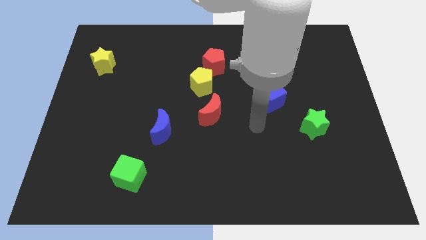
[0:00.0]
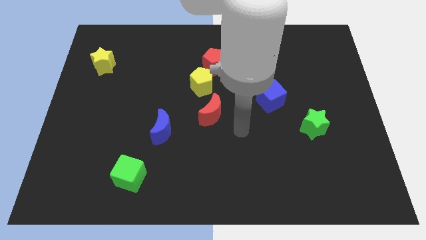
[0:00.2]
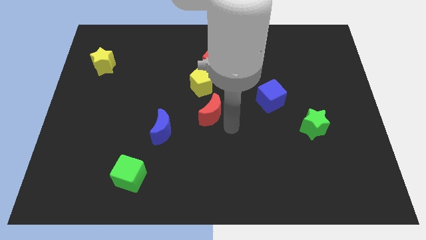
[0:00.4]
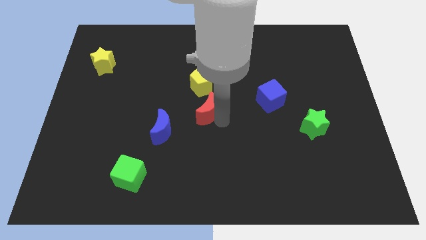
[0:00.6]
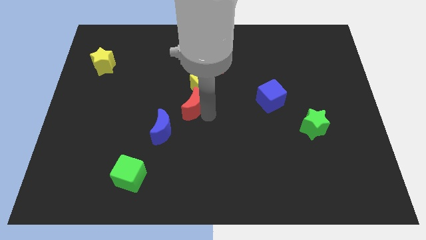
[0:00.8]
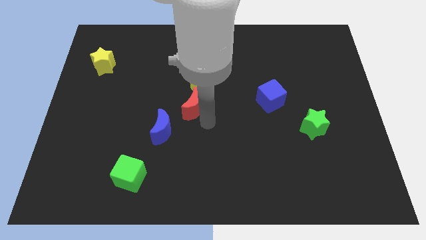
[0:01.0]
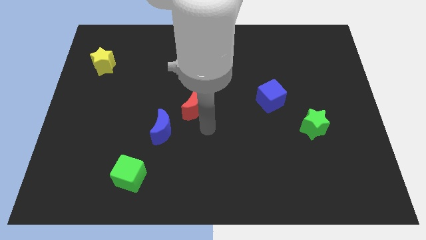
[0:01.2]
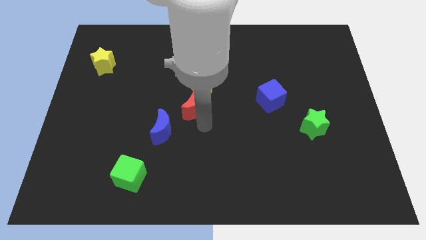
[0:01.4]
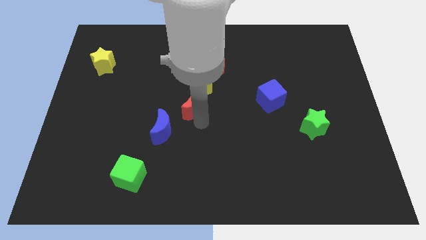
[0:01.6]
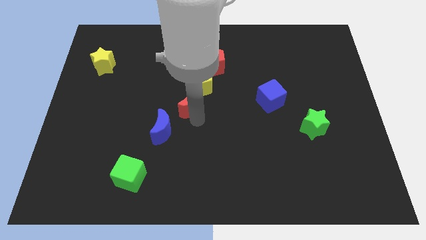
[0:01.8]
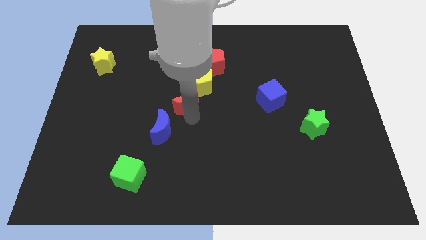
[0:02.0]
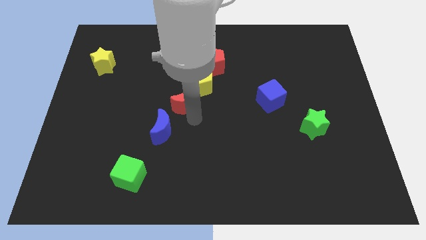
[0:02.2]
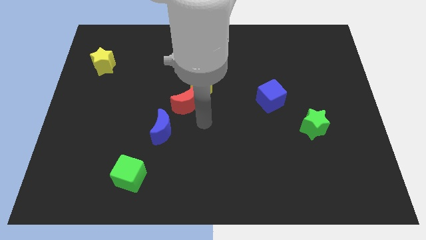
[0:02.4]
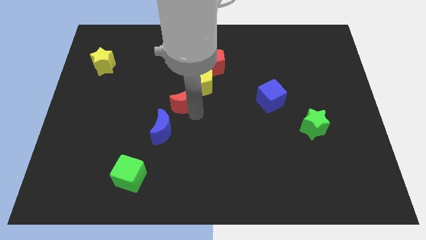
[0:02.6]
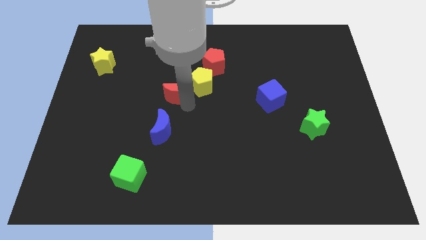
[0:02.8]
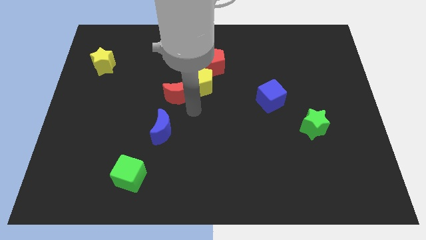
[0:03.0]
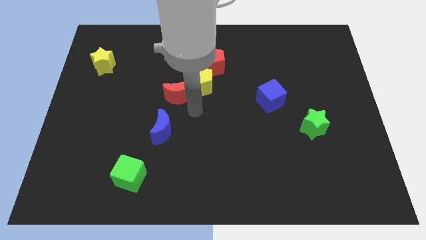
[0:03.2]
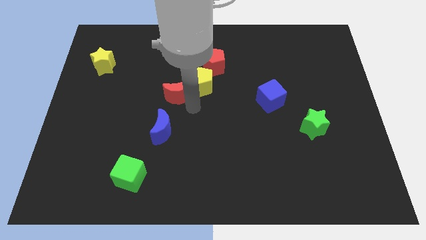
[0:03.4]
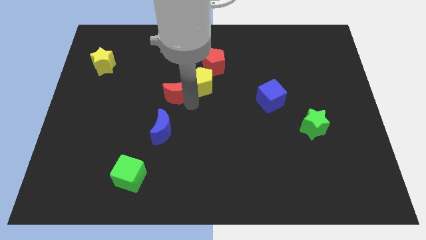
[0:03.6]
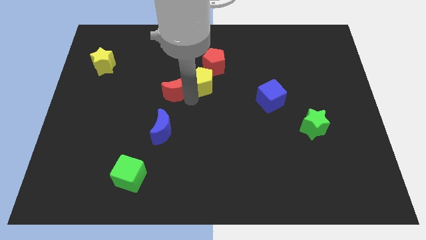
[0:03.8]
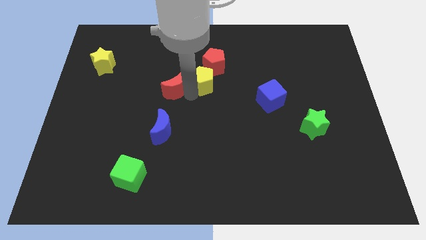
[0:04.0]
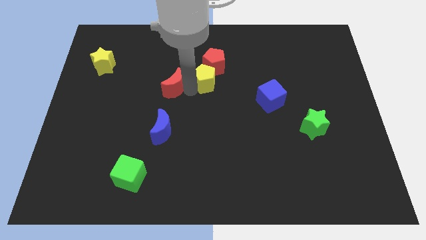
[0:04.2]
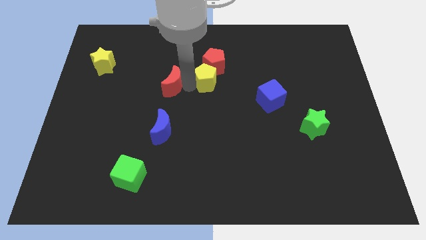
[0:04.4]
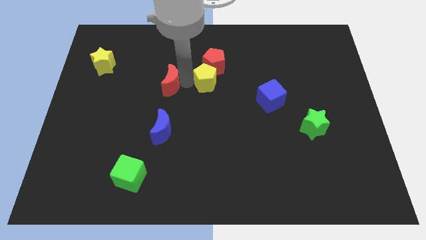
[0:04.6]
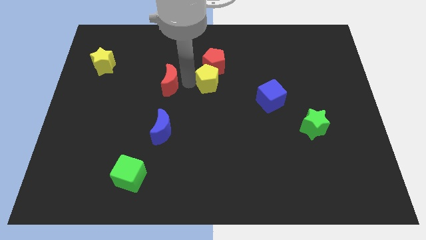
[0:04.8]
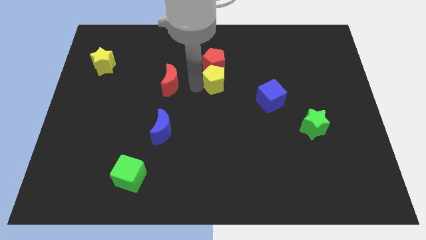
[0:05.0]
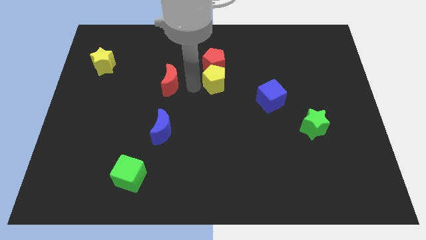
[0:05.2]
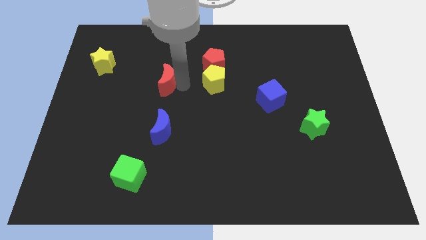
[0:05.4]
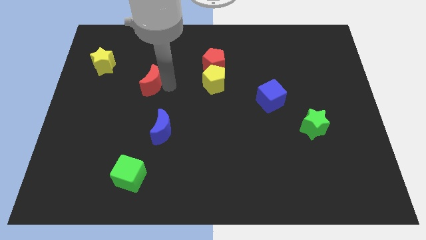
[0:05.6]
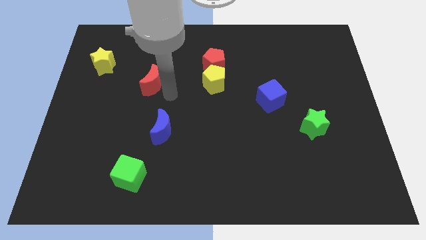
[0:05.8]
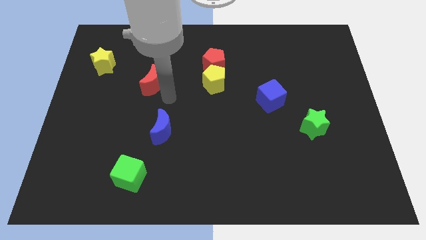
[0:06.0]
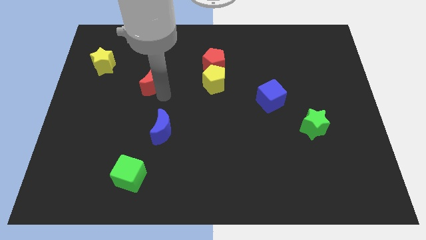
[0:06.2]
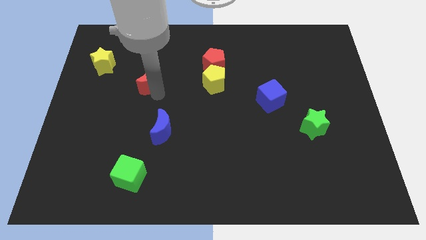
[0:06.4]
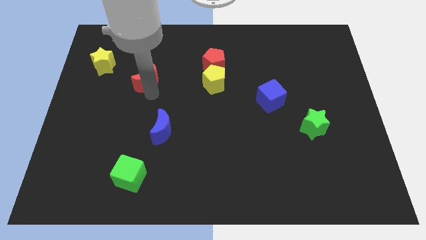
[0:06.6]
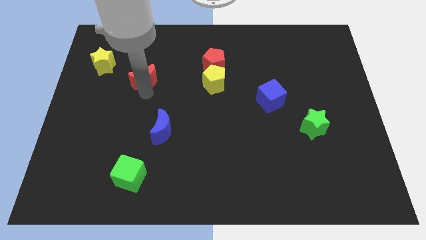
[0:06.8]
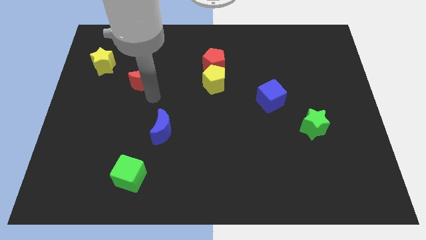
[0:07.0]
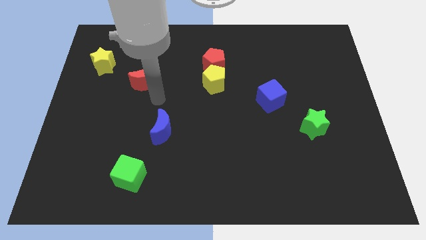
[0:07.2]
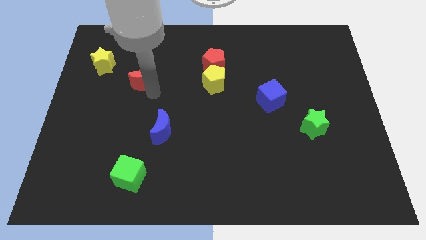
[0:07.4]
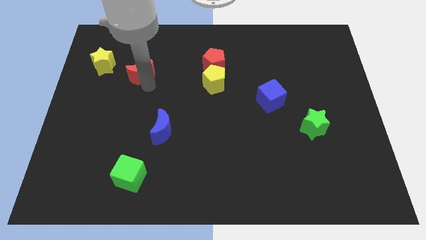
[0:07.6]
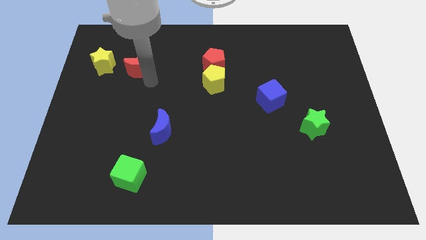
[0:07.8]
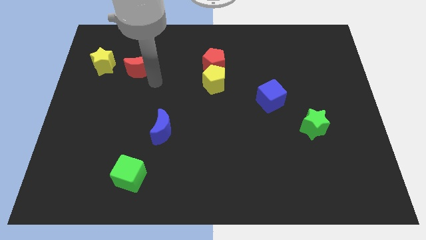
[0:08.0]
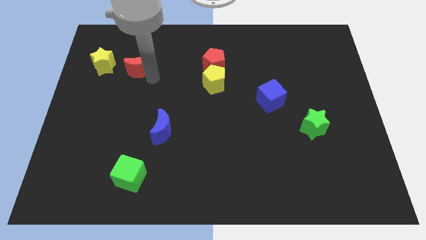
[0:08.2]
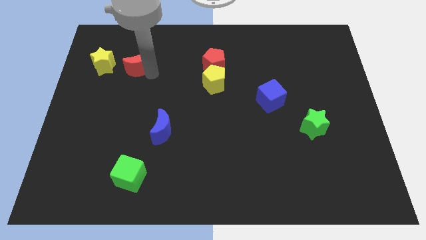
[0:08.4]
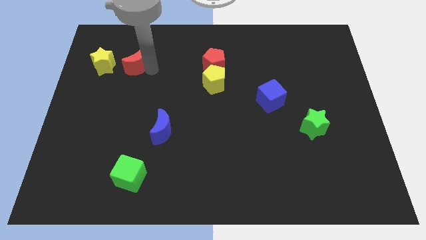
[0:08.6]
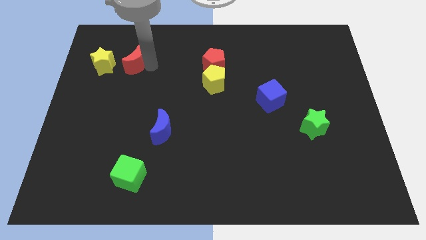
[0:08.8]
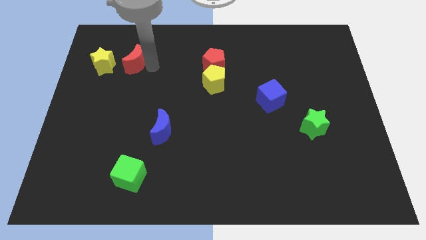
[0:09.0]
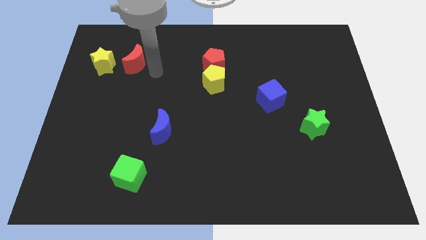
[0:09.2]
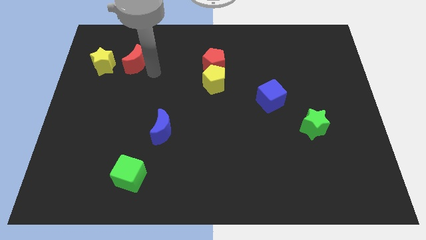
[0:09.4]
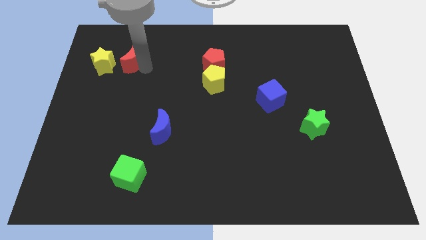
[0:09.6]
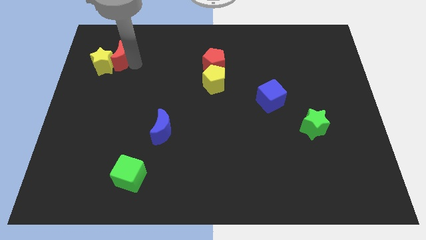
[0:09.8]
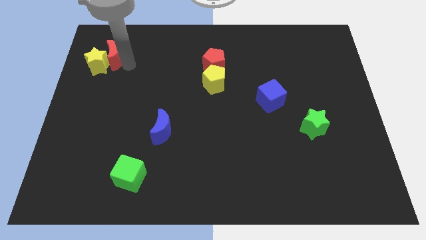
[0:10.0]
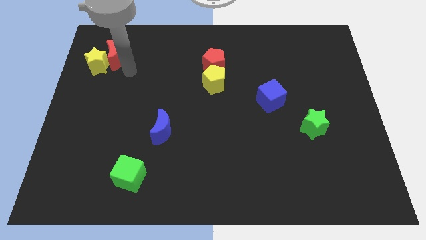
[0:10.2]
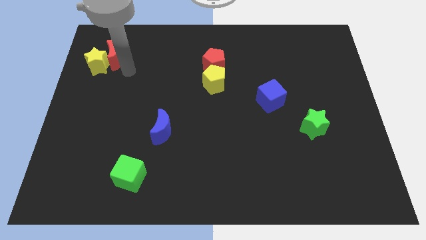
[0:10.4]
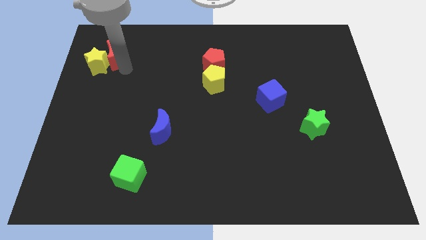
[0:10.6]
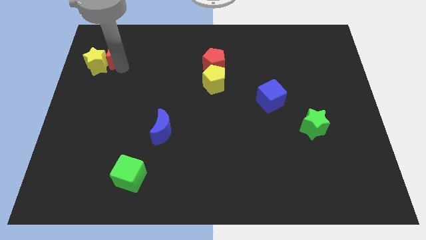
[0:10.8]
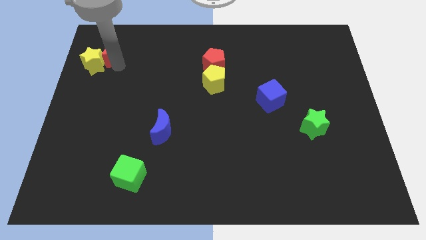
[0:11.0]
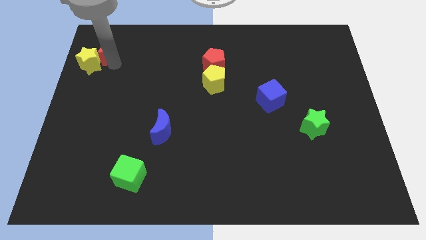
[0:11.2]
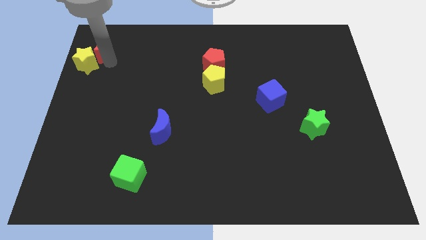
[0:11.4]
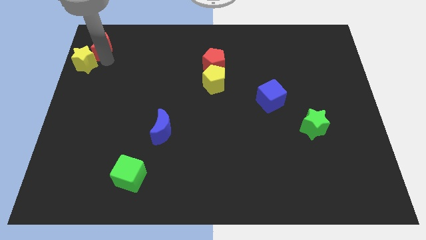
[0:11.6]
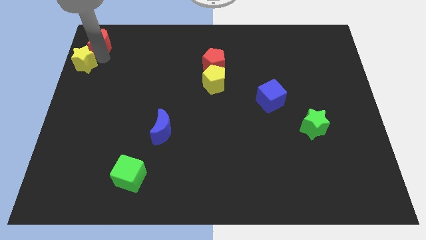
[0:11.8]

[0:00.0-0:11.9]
slide the red moon to the top left corner
